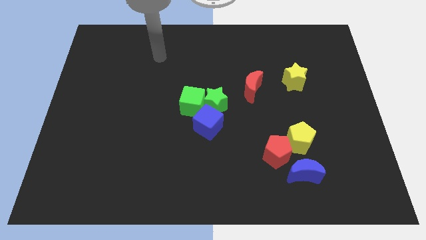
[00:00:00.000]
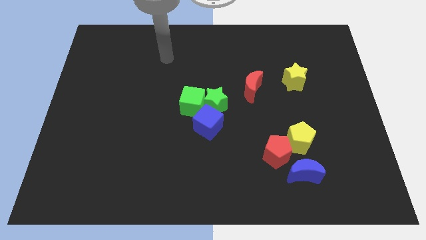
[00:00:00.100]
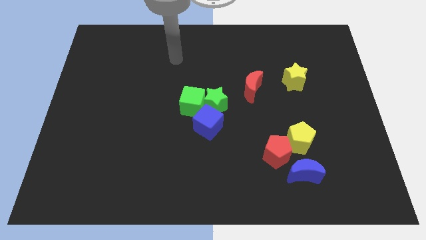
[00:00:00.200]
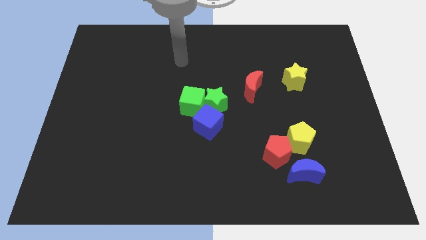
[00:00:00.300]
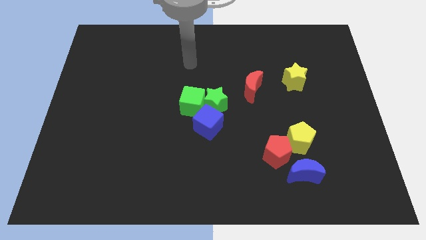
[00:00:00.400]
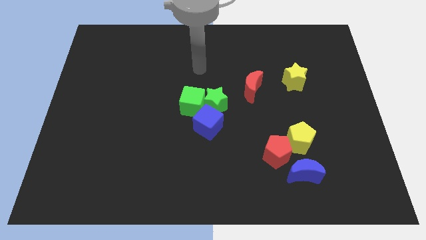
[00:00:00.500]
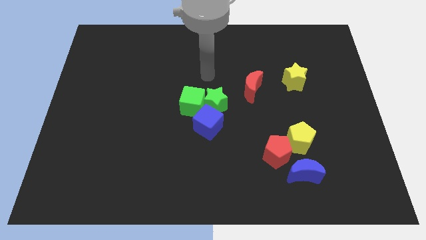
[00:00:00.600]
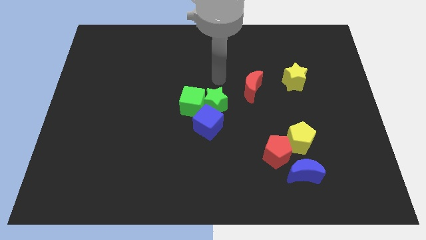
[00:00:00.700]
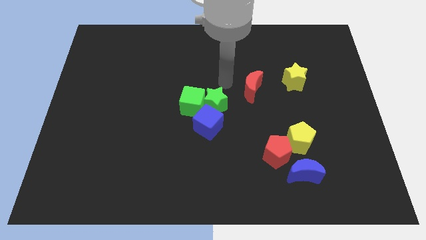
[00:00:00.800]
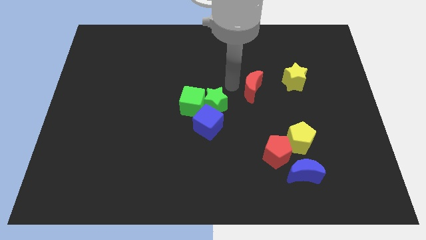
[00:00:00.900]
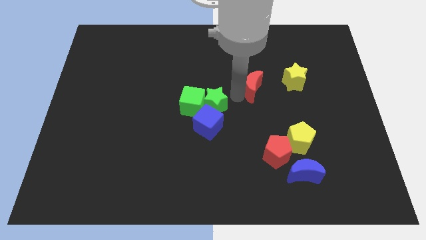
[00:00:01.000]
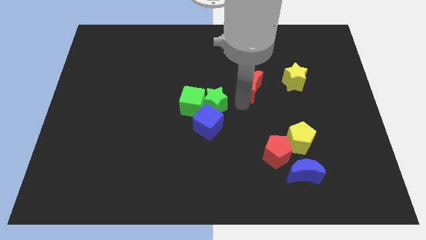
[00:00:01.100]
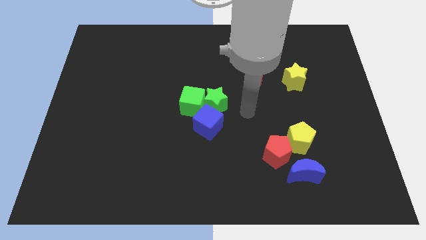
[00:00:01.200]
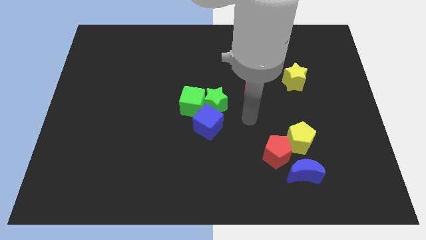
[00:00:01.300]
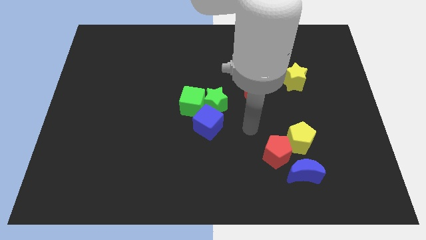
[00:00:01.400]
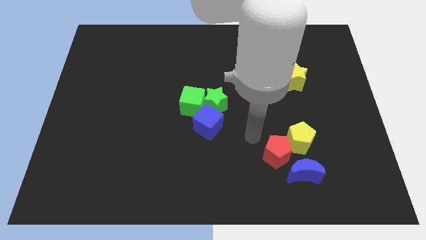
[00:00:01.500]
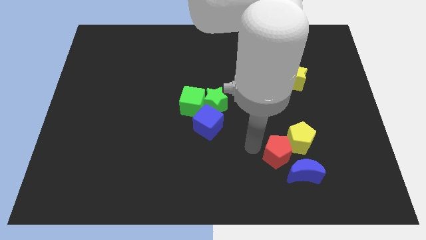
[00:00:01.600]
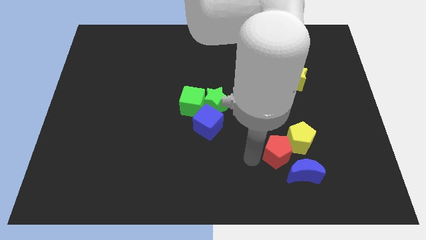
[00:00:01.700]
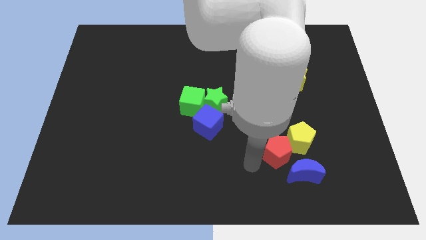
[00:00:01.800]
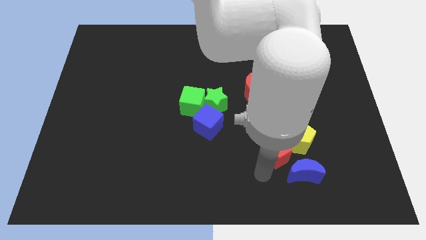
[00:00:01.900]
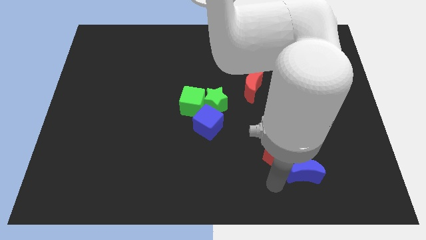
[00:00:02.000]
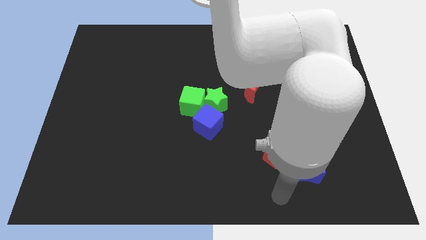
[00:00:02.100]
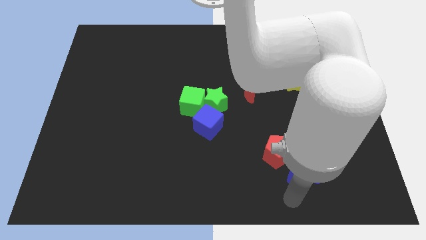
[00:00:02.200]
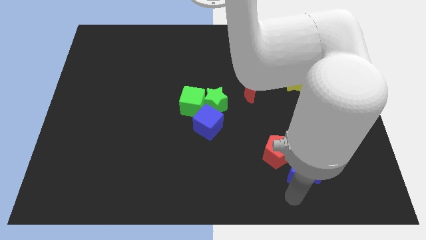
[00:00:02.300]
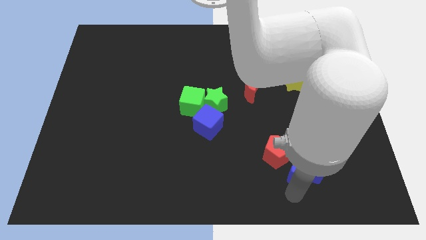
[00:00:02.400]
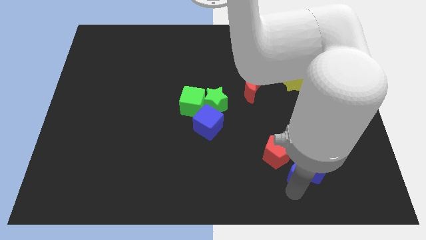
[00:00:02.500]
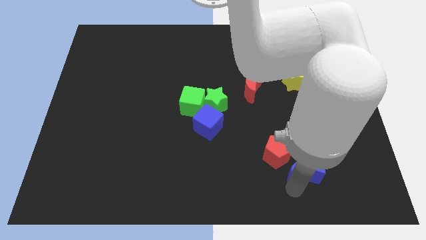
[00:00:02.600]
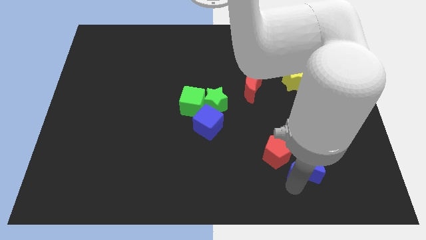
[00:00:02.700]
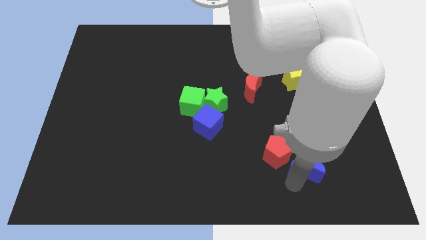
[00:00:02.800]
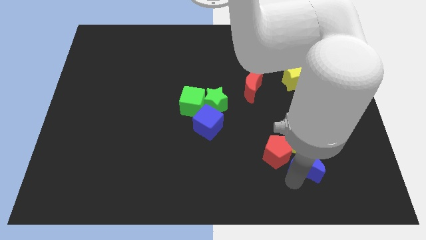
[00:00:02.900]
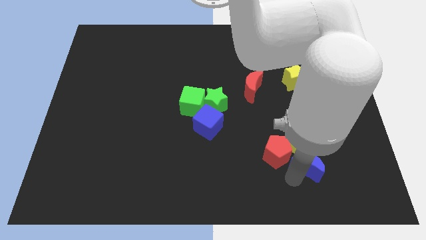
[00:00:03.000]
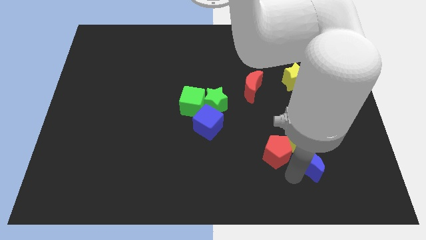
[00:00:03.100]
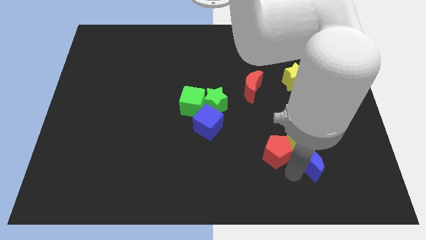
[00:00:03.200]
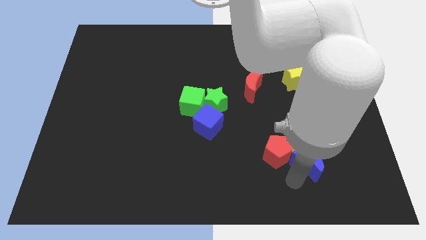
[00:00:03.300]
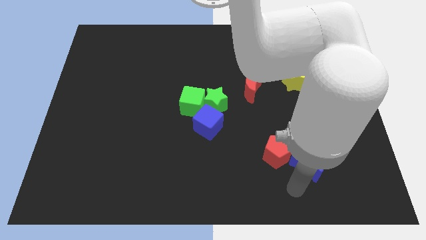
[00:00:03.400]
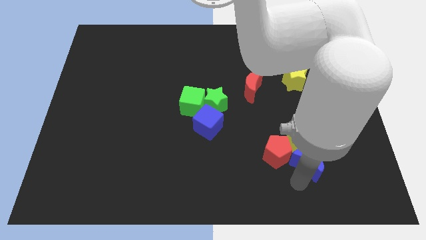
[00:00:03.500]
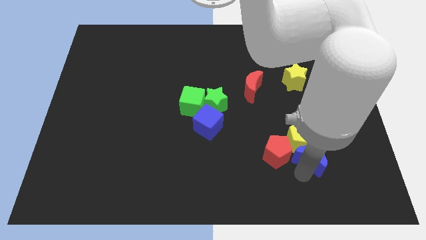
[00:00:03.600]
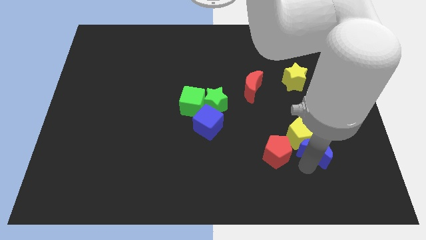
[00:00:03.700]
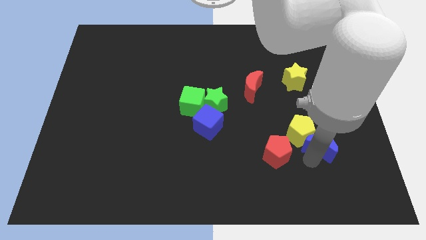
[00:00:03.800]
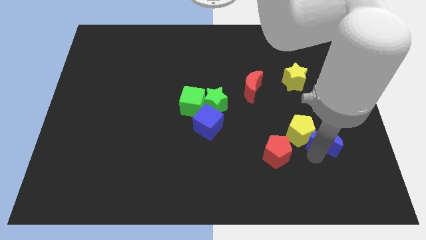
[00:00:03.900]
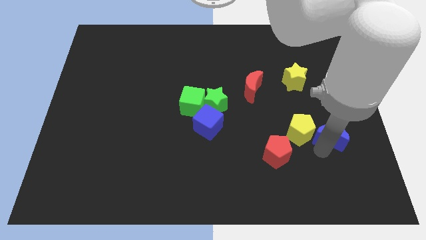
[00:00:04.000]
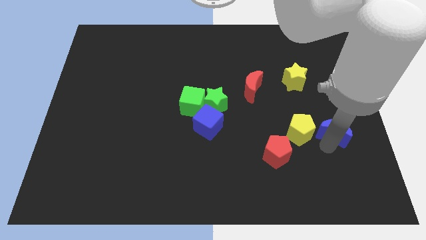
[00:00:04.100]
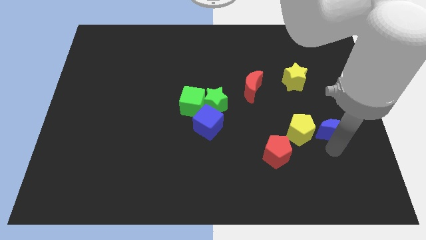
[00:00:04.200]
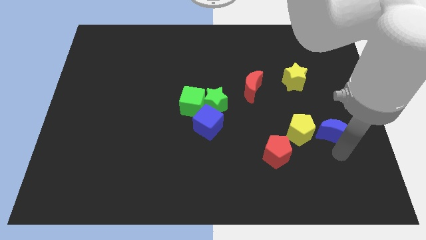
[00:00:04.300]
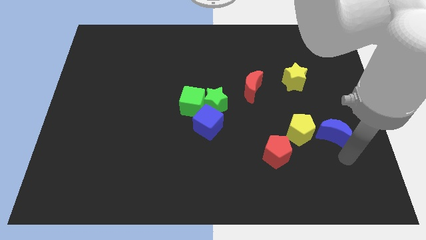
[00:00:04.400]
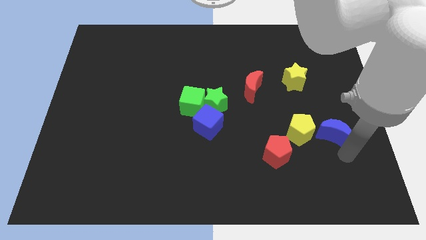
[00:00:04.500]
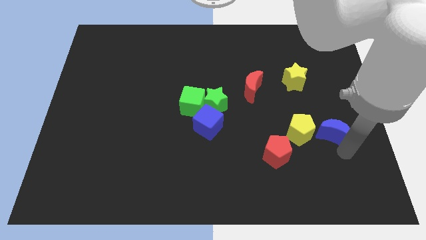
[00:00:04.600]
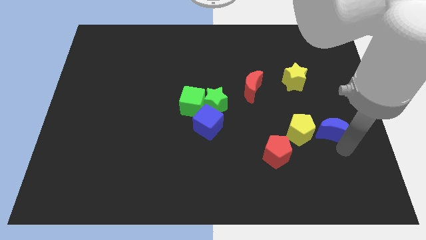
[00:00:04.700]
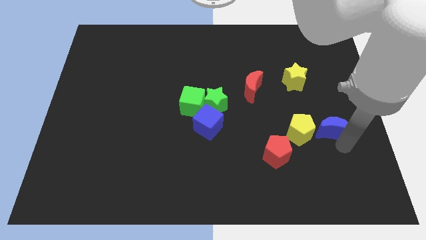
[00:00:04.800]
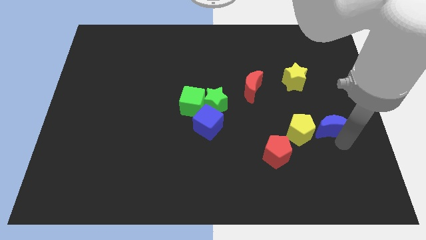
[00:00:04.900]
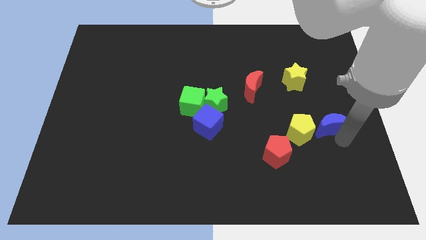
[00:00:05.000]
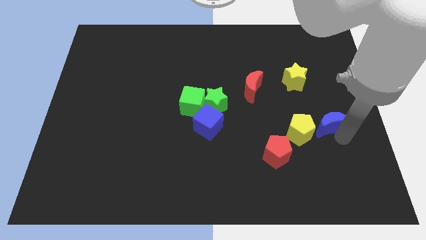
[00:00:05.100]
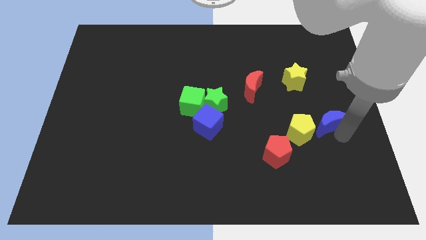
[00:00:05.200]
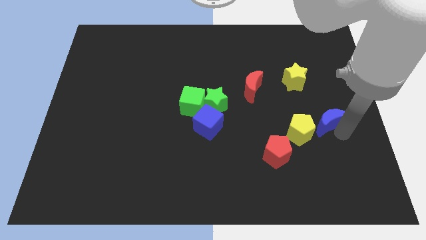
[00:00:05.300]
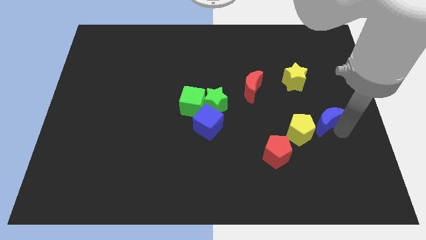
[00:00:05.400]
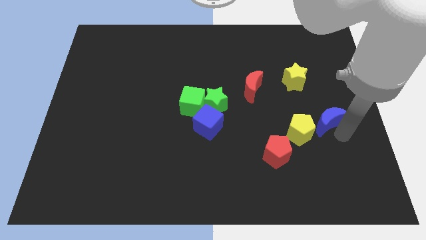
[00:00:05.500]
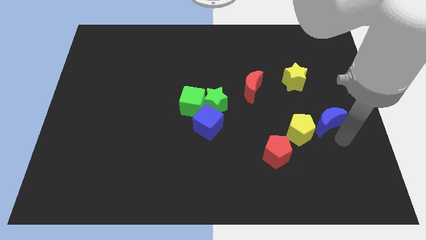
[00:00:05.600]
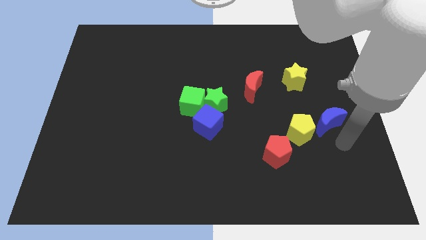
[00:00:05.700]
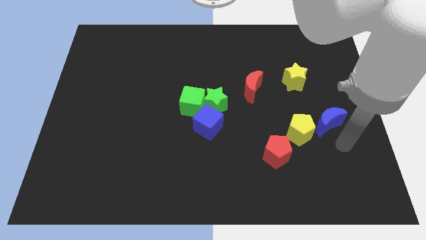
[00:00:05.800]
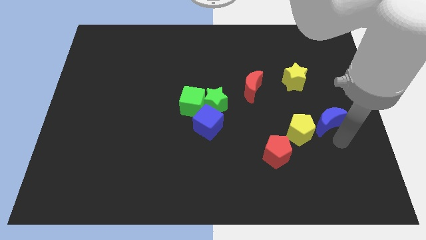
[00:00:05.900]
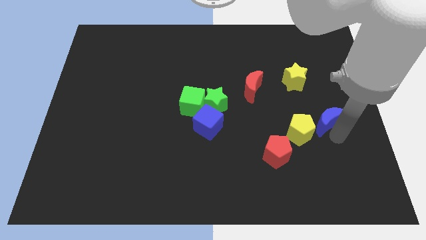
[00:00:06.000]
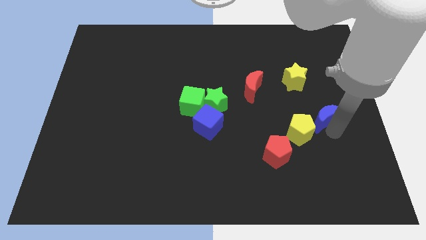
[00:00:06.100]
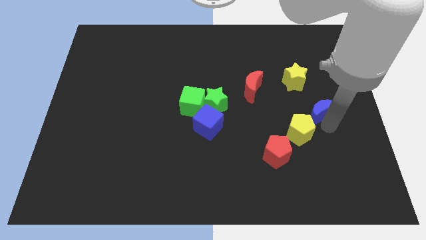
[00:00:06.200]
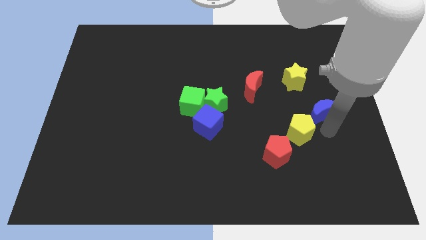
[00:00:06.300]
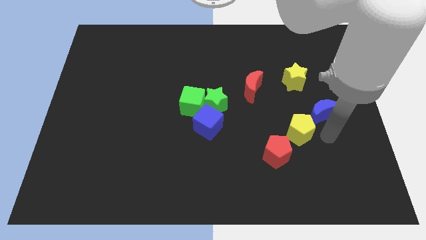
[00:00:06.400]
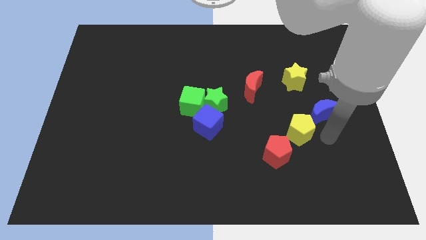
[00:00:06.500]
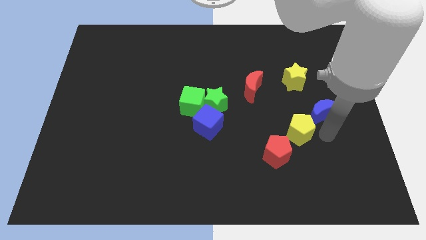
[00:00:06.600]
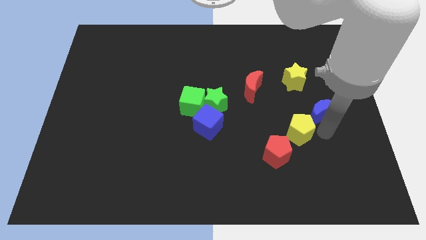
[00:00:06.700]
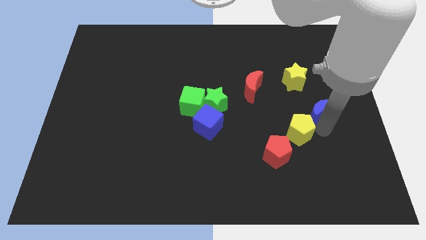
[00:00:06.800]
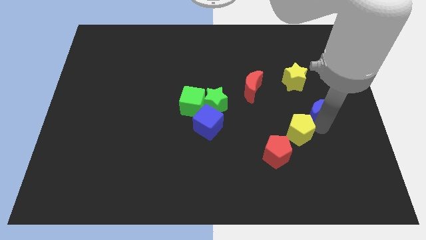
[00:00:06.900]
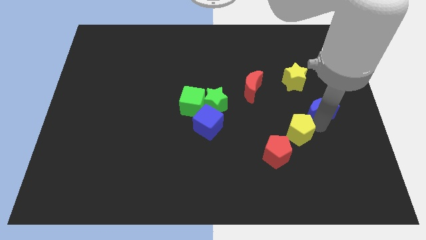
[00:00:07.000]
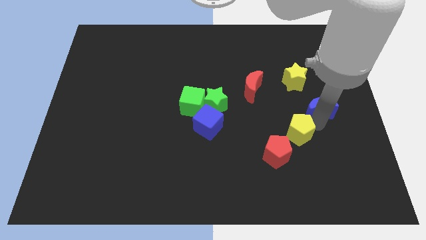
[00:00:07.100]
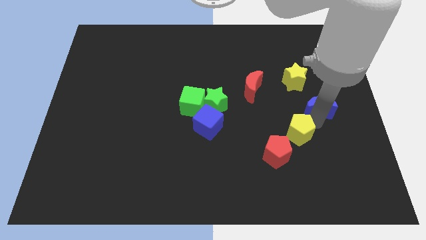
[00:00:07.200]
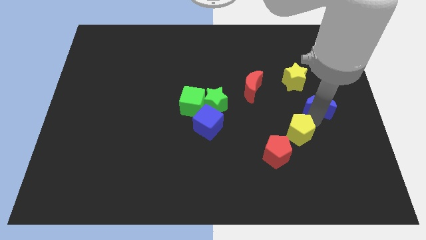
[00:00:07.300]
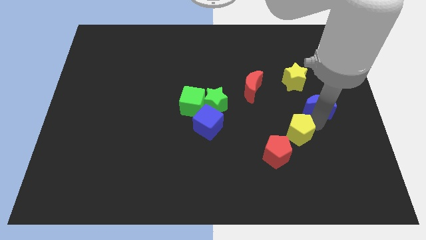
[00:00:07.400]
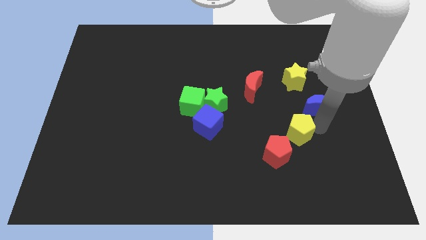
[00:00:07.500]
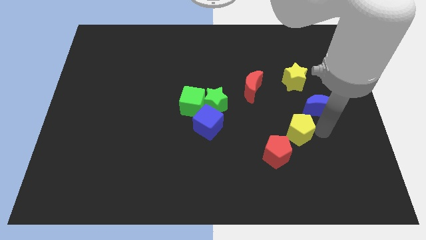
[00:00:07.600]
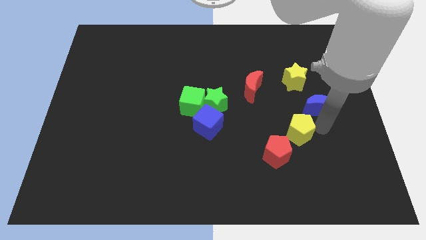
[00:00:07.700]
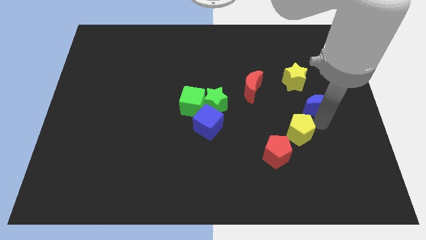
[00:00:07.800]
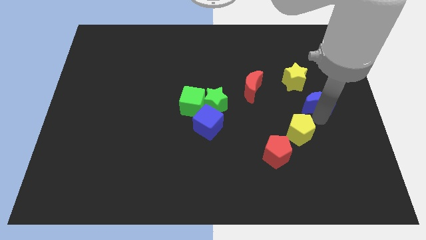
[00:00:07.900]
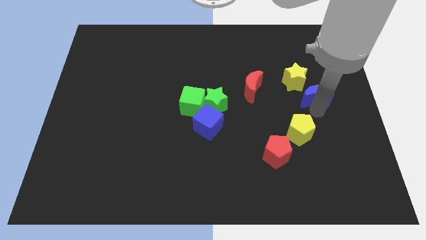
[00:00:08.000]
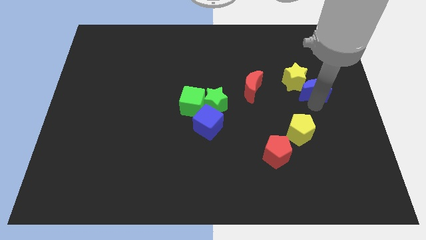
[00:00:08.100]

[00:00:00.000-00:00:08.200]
push the blue moon upwards

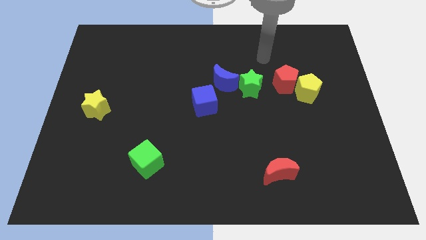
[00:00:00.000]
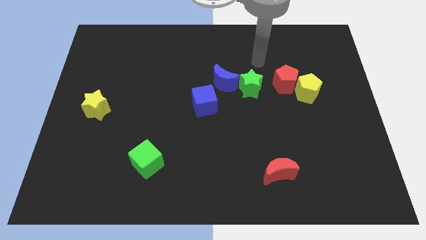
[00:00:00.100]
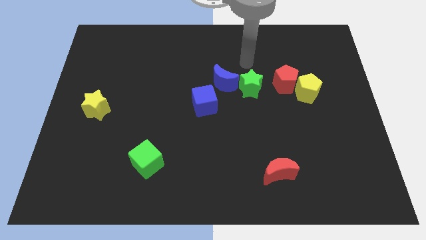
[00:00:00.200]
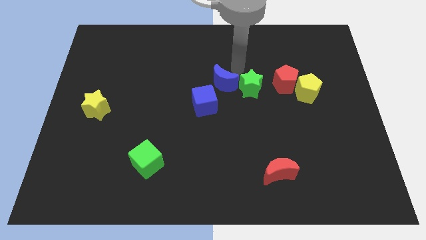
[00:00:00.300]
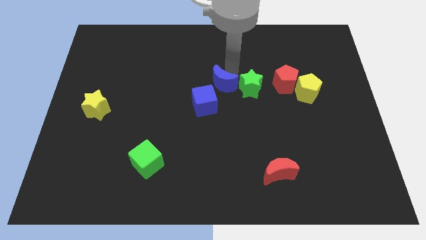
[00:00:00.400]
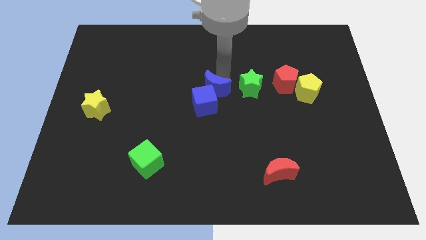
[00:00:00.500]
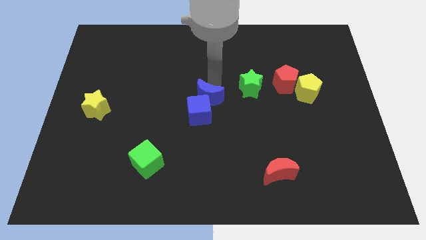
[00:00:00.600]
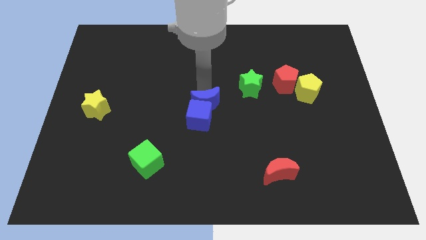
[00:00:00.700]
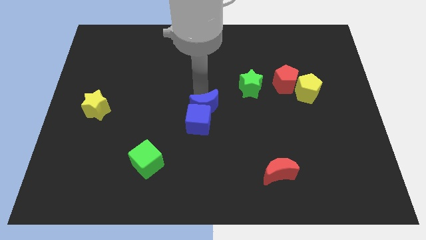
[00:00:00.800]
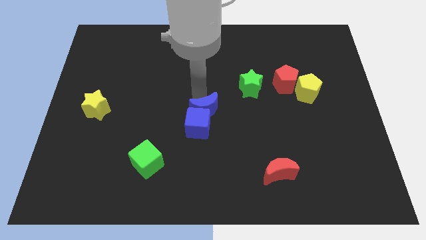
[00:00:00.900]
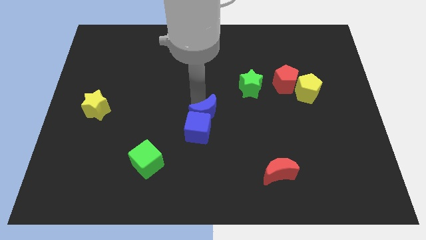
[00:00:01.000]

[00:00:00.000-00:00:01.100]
slightly push the blue cube down
